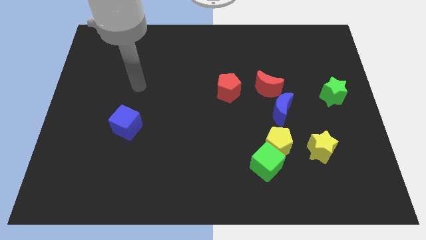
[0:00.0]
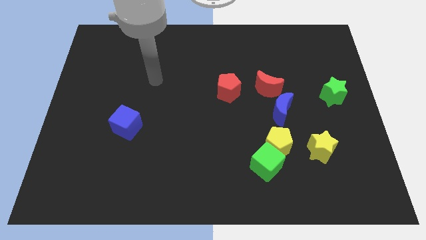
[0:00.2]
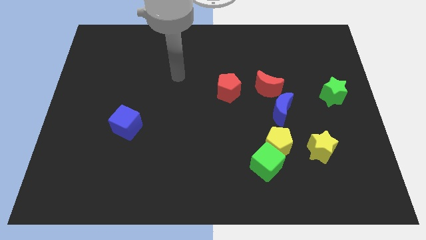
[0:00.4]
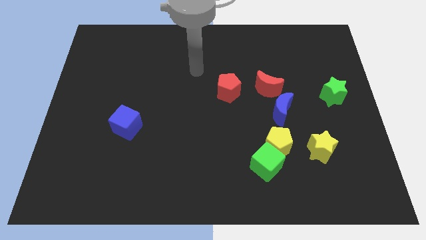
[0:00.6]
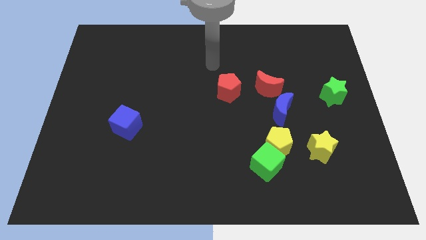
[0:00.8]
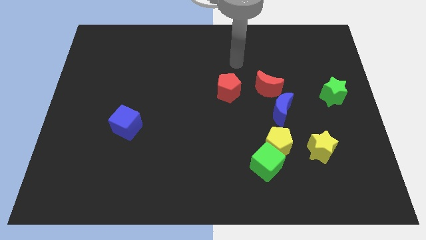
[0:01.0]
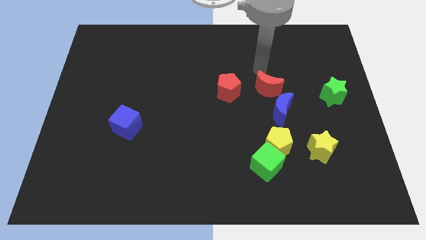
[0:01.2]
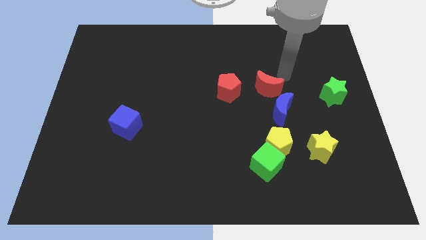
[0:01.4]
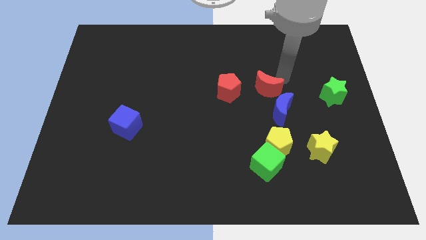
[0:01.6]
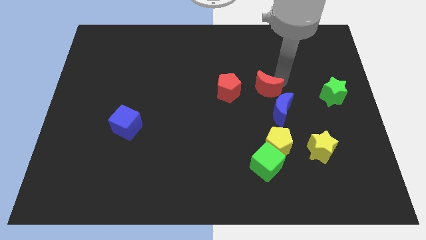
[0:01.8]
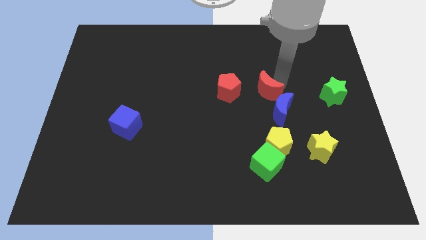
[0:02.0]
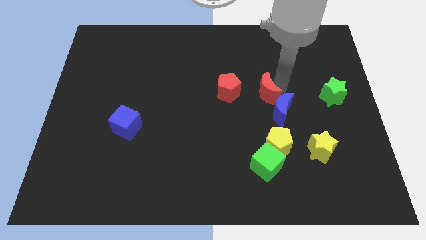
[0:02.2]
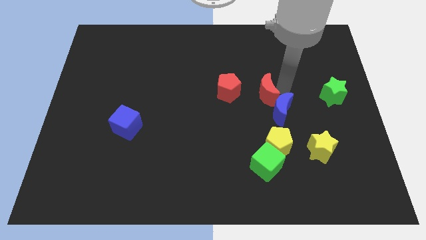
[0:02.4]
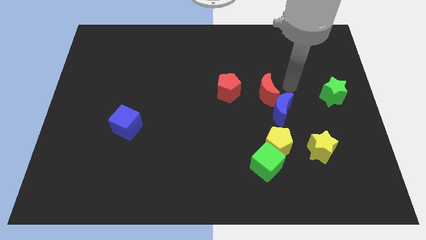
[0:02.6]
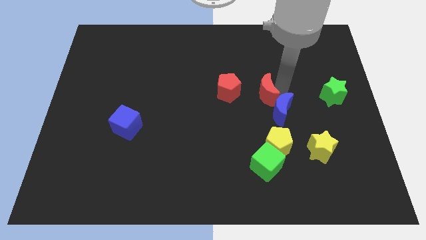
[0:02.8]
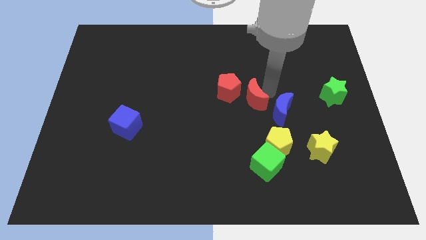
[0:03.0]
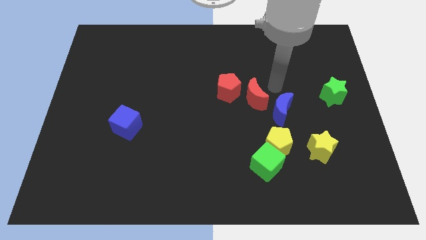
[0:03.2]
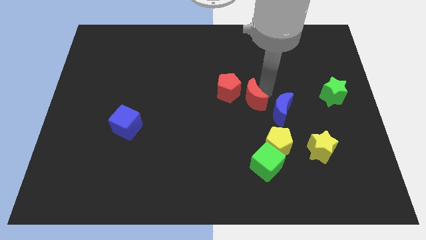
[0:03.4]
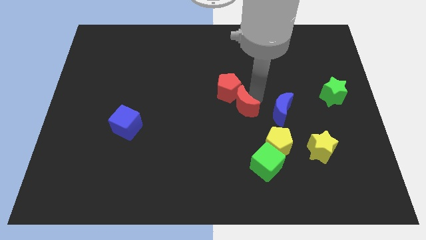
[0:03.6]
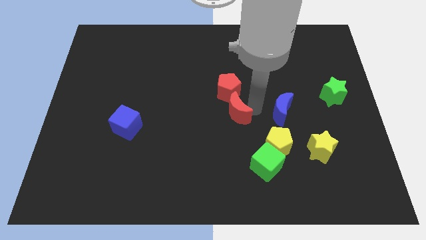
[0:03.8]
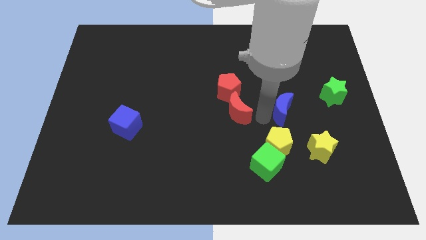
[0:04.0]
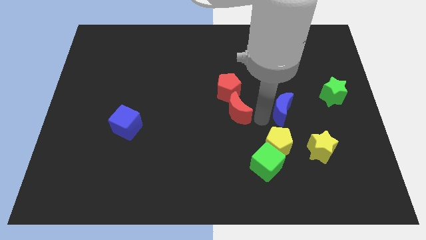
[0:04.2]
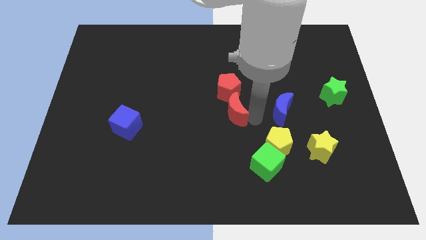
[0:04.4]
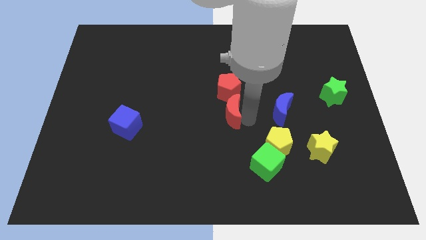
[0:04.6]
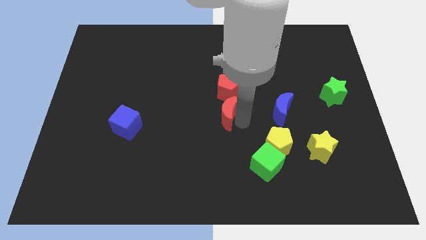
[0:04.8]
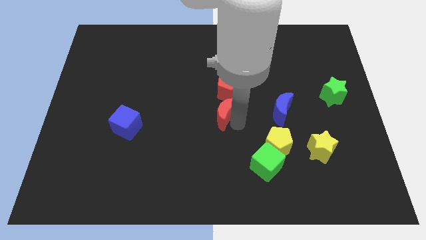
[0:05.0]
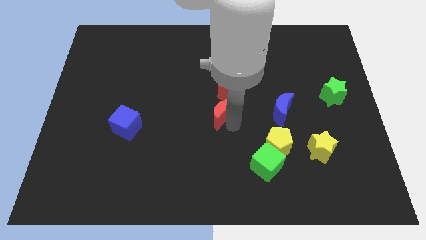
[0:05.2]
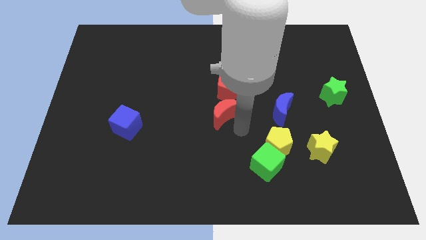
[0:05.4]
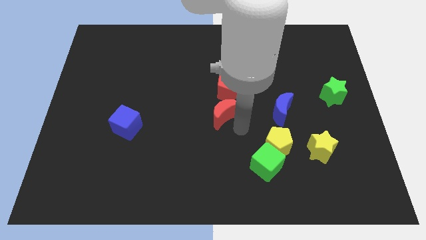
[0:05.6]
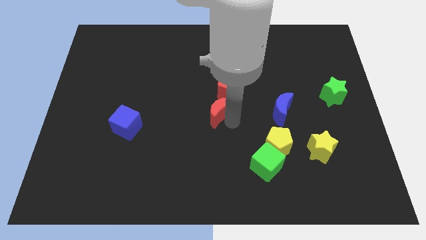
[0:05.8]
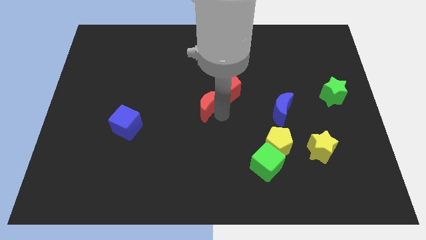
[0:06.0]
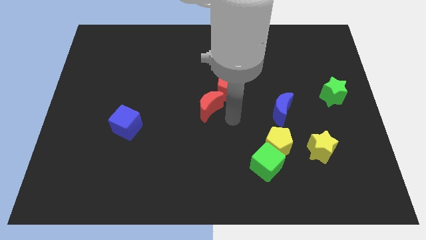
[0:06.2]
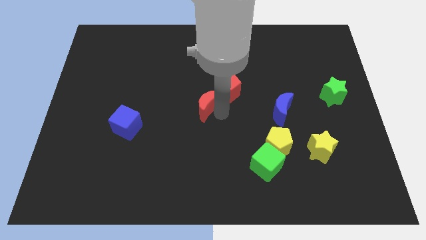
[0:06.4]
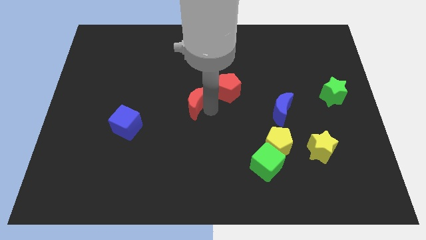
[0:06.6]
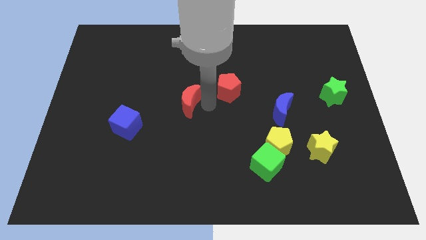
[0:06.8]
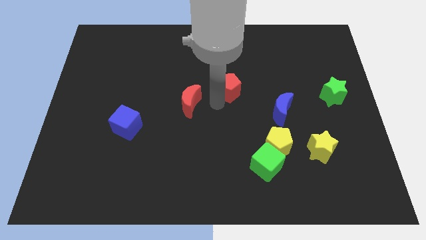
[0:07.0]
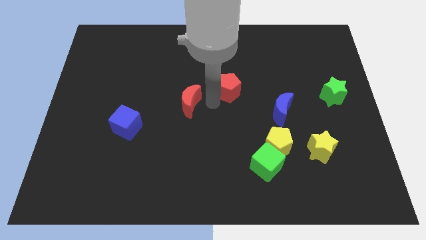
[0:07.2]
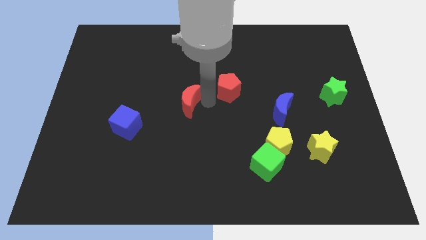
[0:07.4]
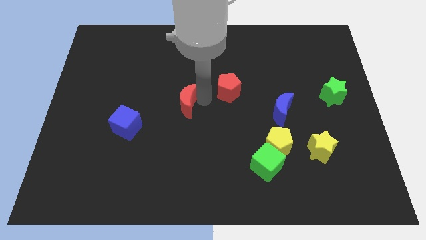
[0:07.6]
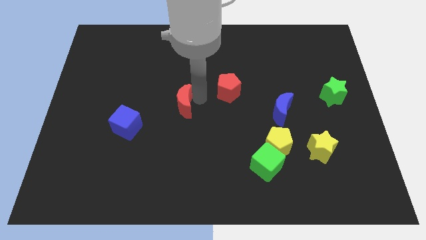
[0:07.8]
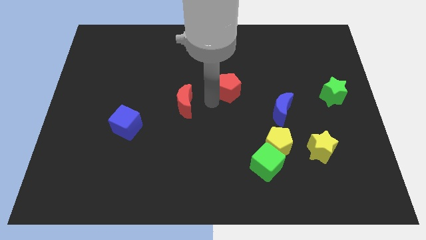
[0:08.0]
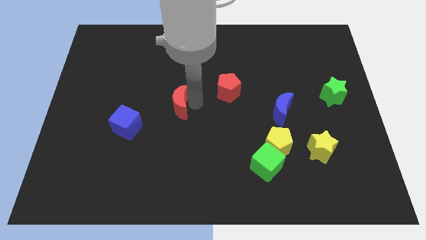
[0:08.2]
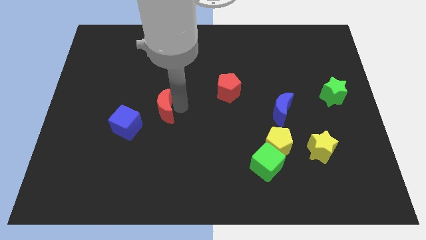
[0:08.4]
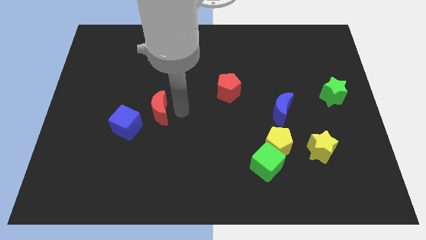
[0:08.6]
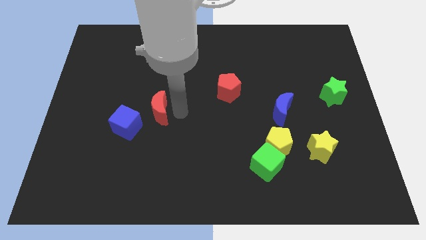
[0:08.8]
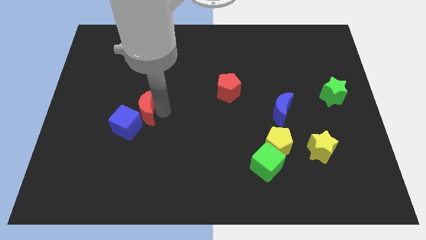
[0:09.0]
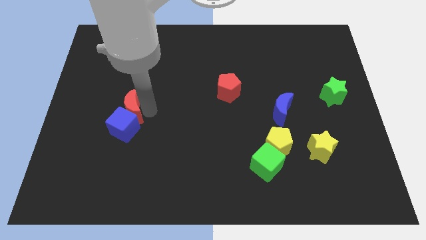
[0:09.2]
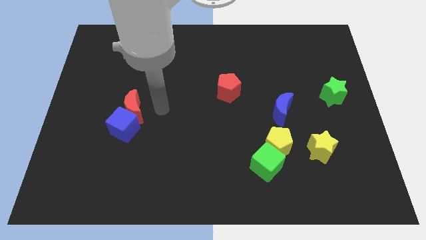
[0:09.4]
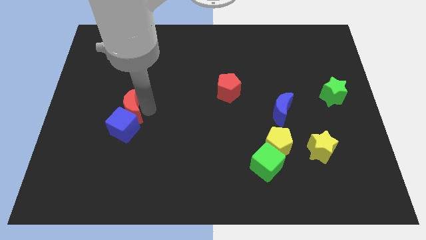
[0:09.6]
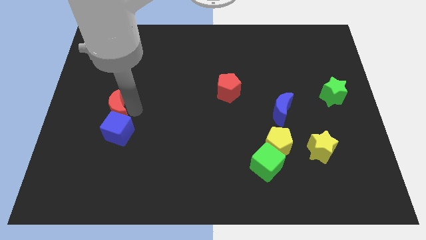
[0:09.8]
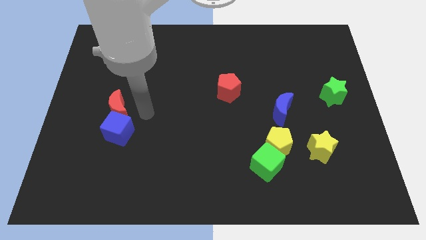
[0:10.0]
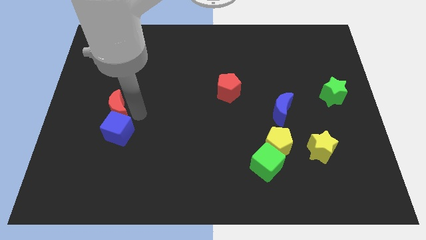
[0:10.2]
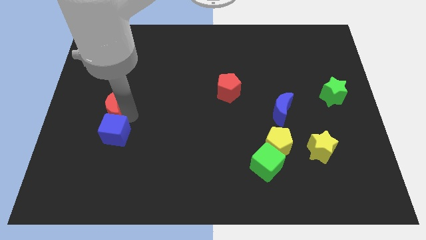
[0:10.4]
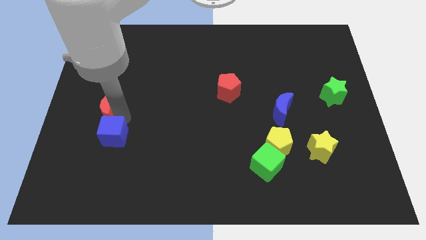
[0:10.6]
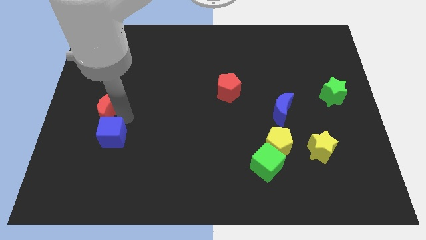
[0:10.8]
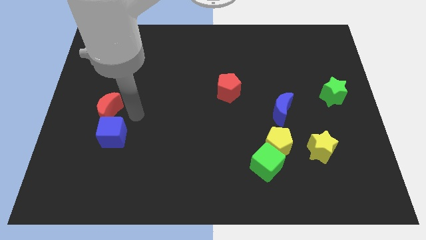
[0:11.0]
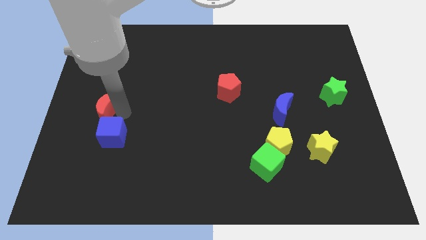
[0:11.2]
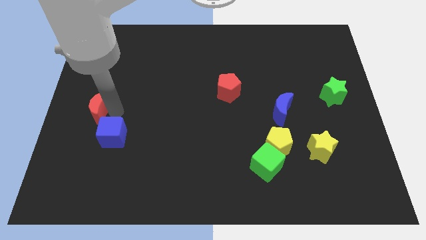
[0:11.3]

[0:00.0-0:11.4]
put the red moon to the left side of the board

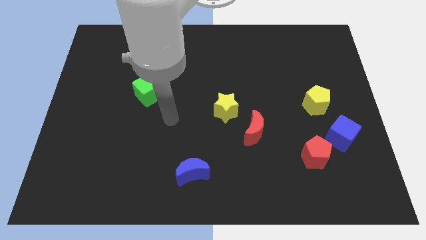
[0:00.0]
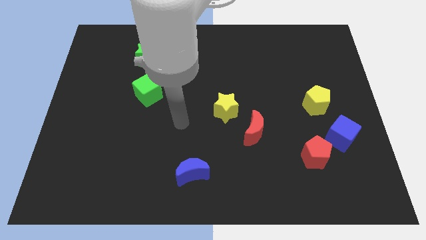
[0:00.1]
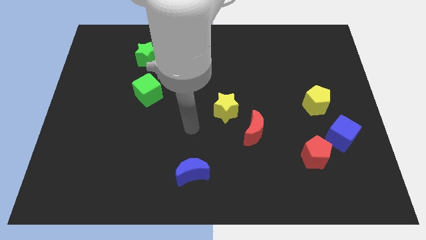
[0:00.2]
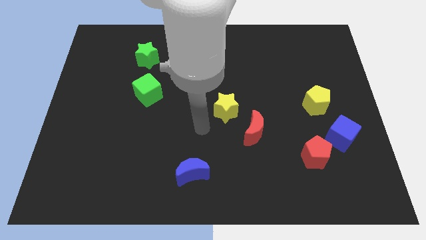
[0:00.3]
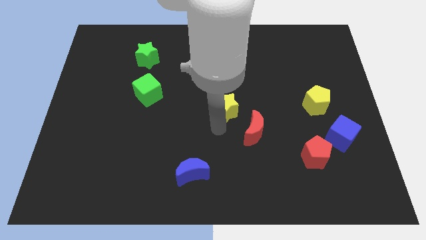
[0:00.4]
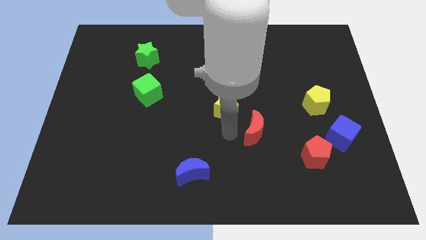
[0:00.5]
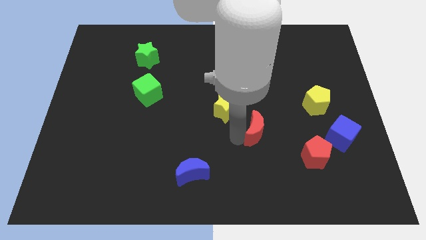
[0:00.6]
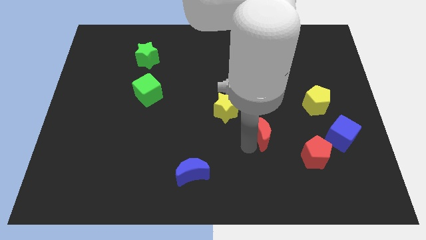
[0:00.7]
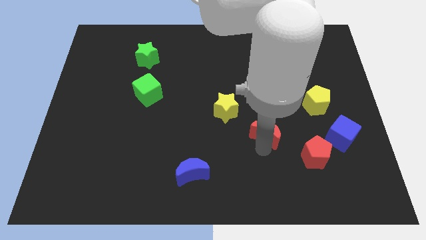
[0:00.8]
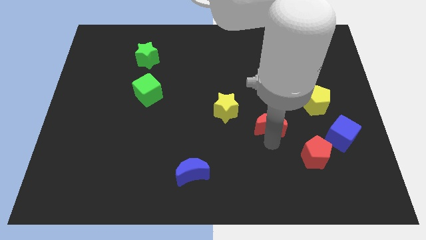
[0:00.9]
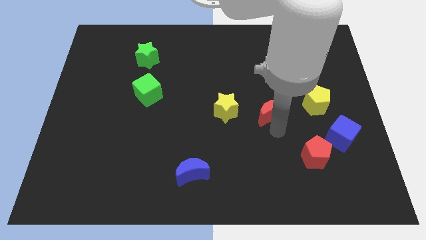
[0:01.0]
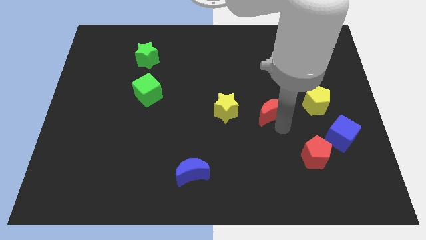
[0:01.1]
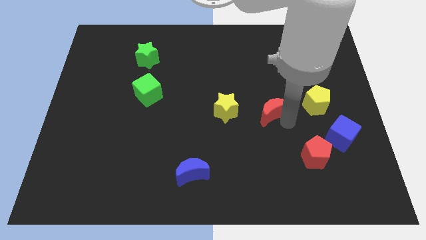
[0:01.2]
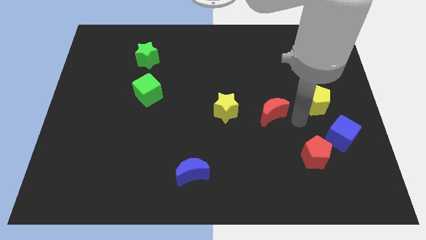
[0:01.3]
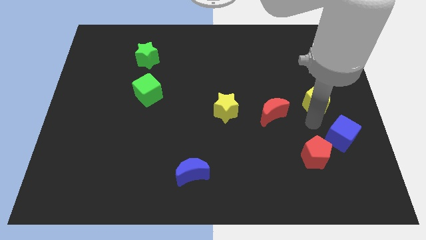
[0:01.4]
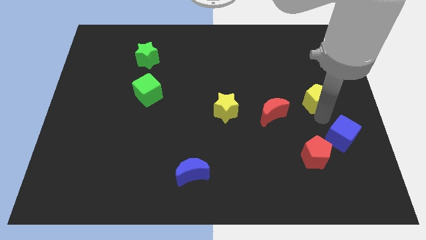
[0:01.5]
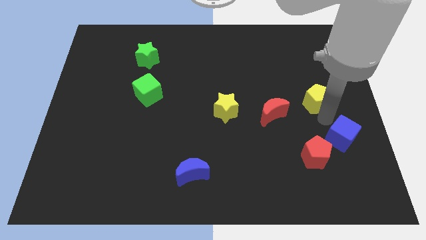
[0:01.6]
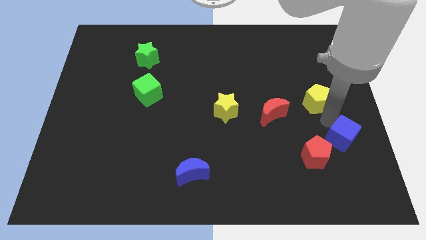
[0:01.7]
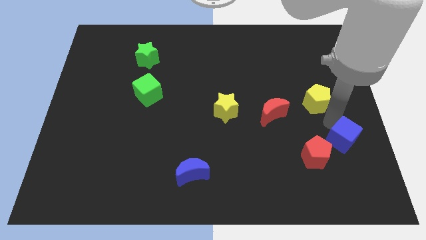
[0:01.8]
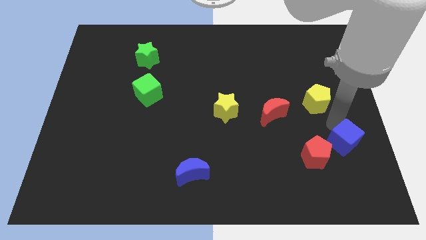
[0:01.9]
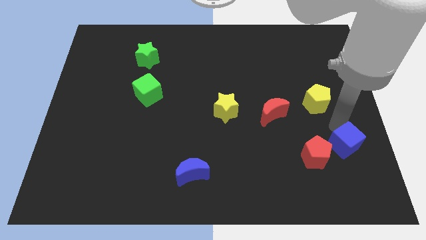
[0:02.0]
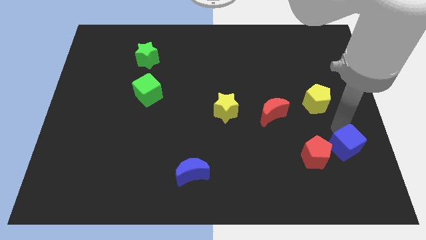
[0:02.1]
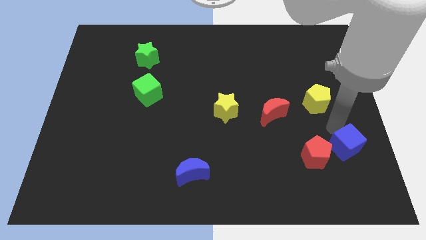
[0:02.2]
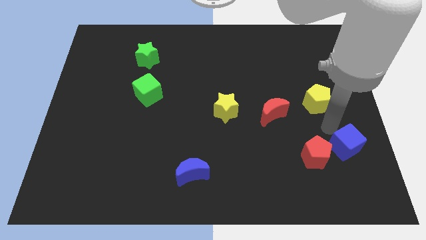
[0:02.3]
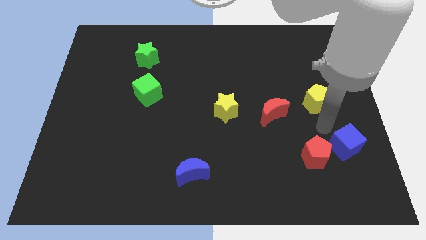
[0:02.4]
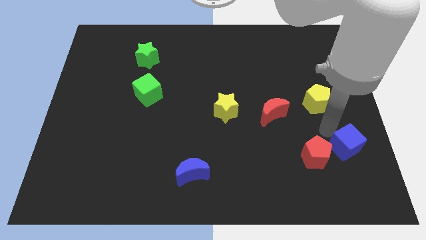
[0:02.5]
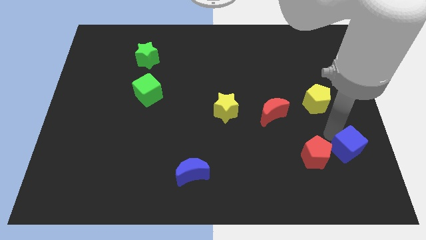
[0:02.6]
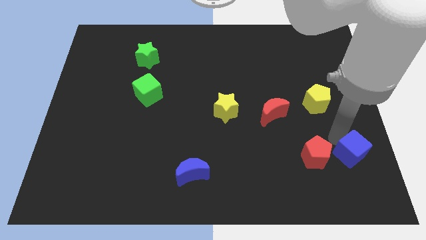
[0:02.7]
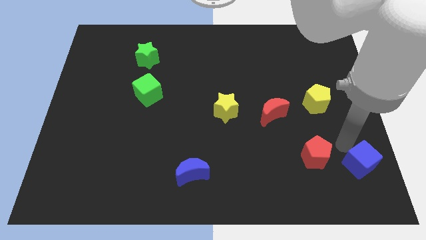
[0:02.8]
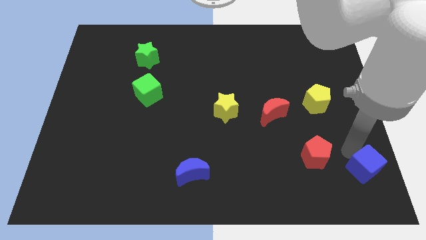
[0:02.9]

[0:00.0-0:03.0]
push the blue cube to the bottom right corner
